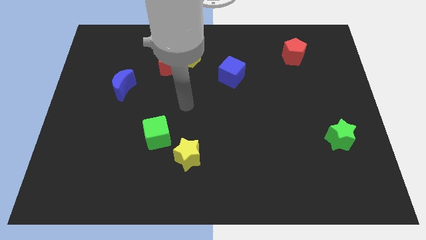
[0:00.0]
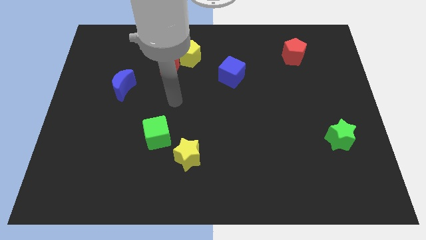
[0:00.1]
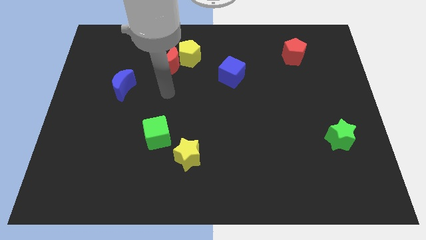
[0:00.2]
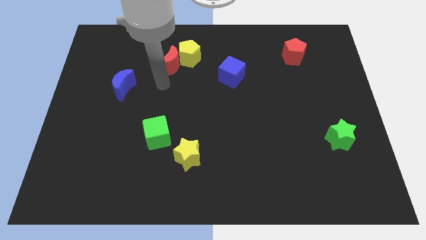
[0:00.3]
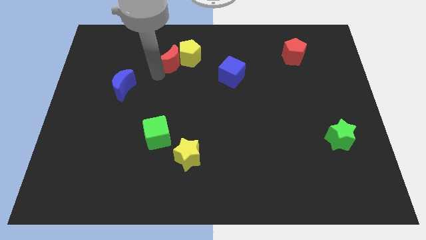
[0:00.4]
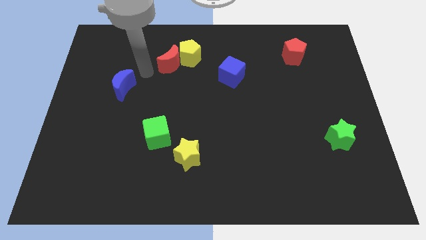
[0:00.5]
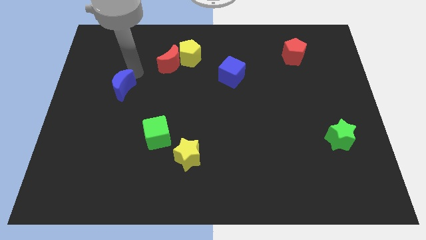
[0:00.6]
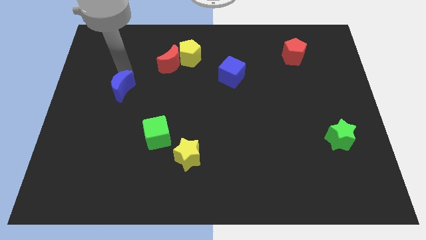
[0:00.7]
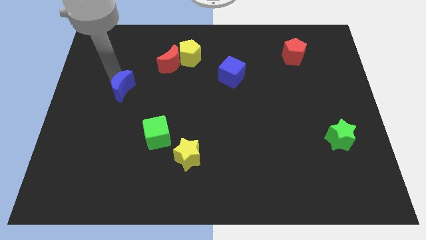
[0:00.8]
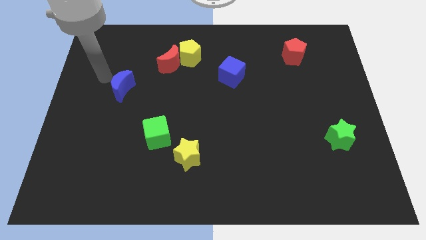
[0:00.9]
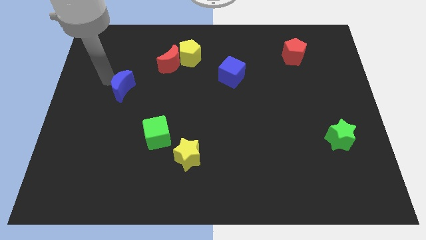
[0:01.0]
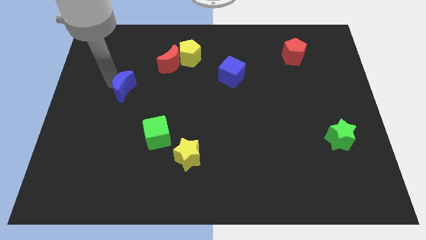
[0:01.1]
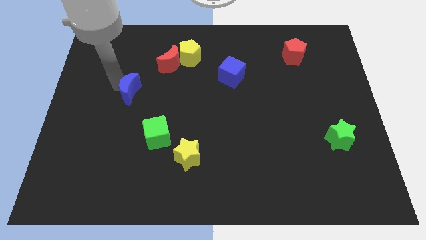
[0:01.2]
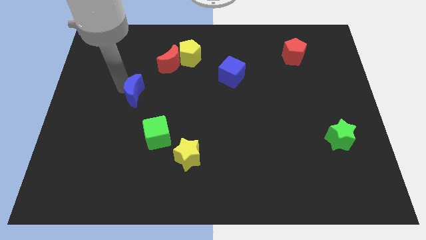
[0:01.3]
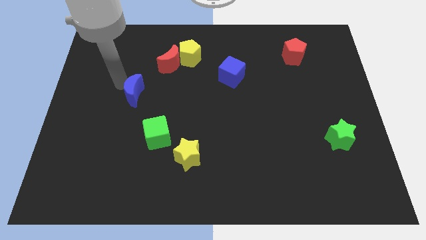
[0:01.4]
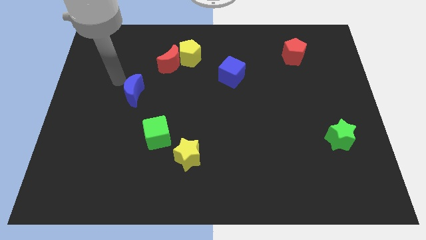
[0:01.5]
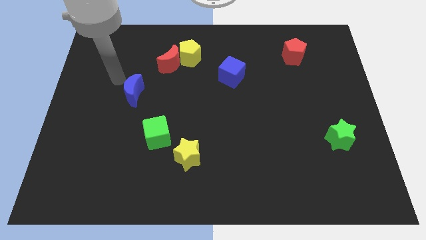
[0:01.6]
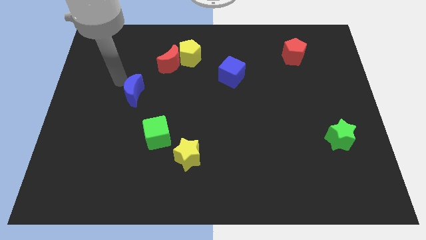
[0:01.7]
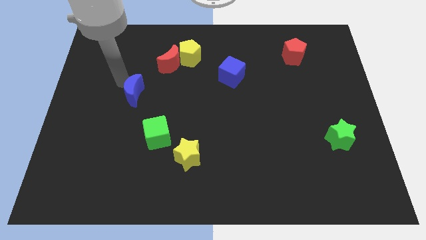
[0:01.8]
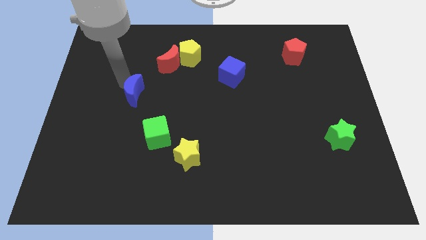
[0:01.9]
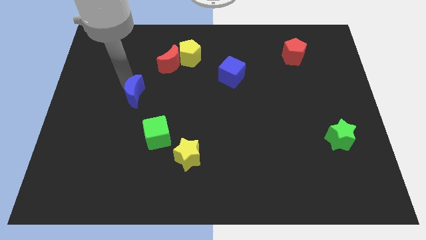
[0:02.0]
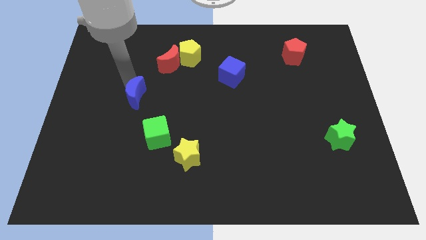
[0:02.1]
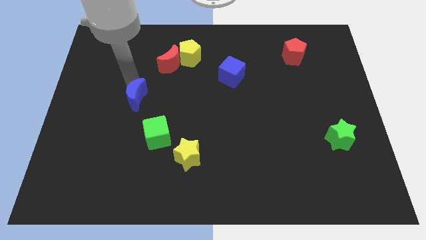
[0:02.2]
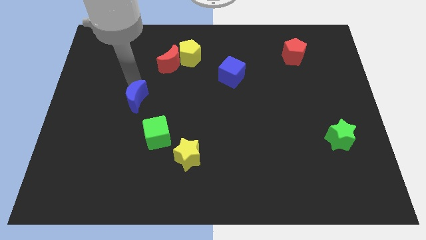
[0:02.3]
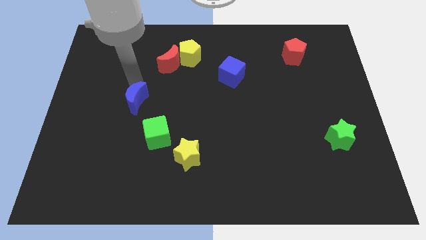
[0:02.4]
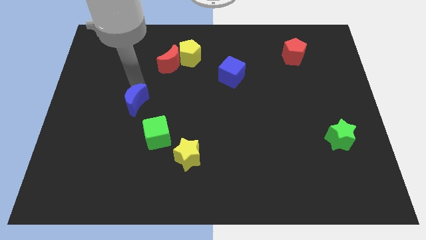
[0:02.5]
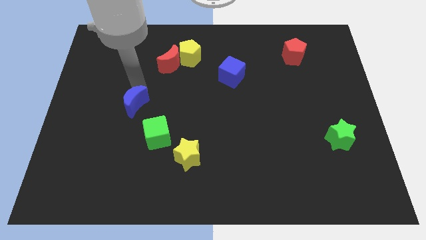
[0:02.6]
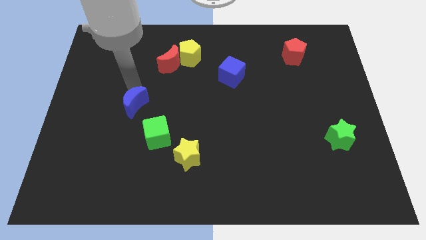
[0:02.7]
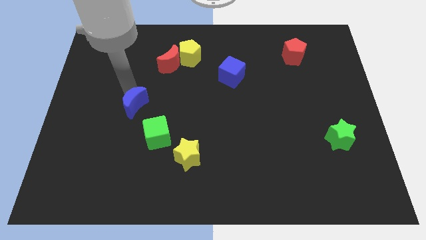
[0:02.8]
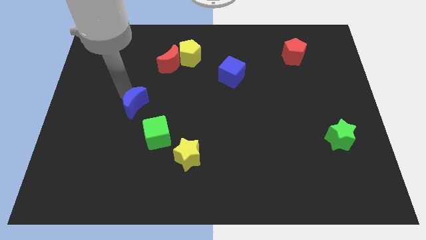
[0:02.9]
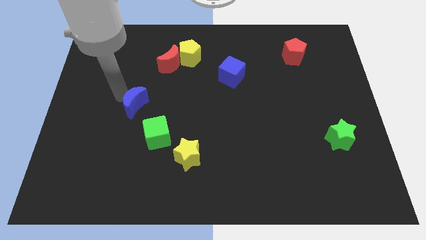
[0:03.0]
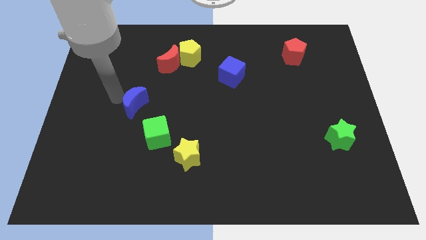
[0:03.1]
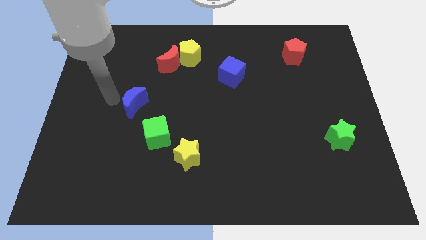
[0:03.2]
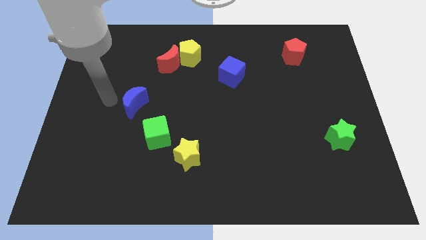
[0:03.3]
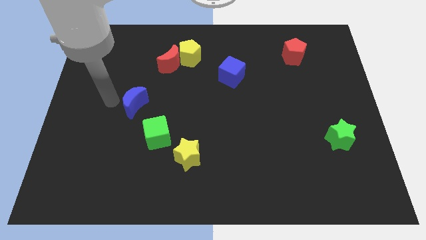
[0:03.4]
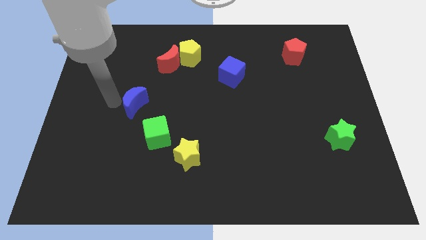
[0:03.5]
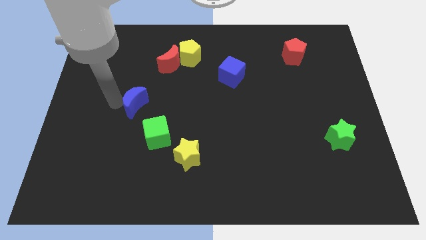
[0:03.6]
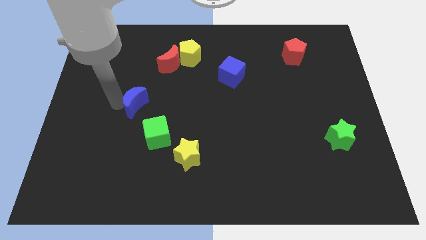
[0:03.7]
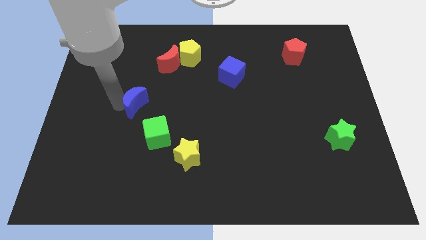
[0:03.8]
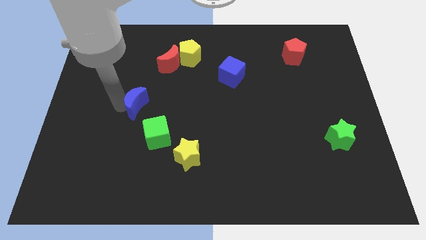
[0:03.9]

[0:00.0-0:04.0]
slide the blue moon somewhat down and to the right diagonally

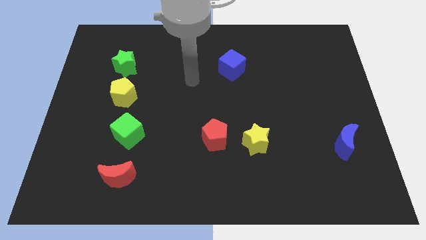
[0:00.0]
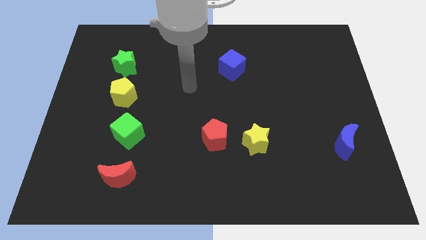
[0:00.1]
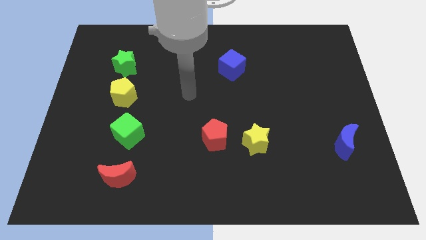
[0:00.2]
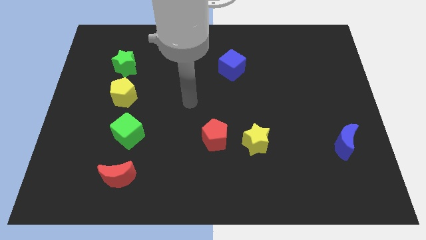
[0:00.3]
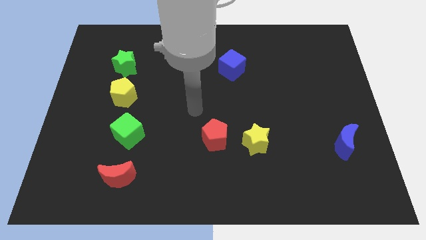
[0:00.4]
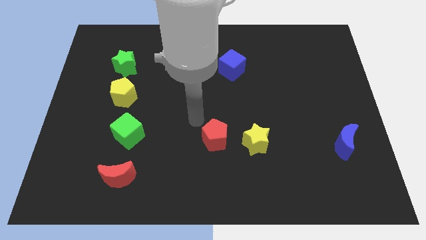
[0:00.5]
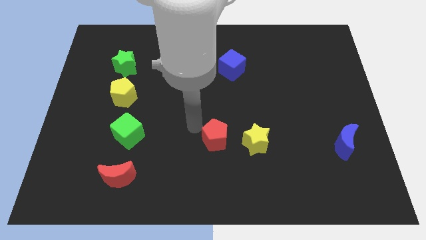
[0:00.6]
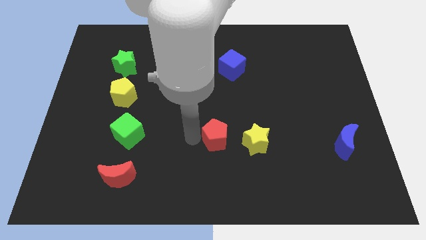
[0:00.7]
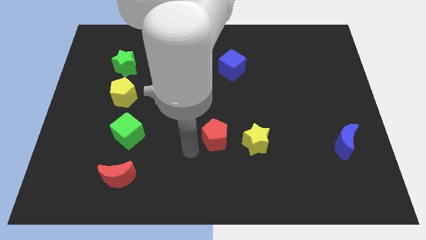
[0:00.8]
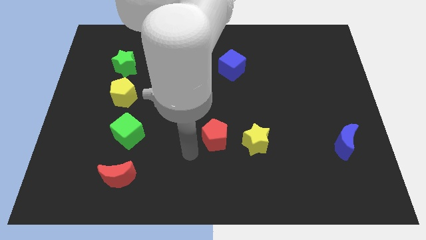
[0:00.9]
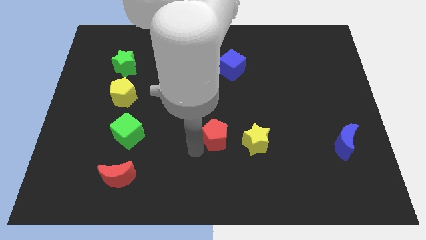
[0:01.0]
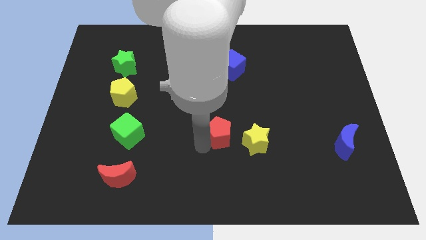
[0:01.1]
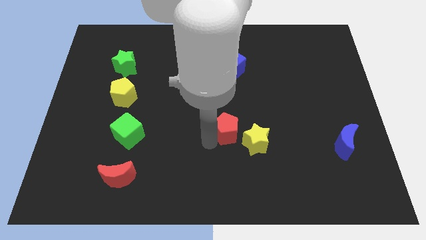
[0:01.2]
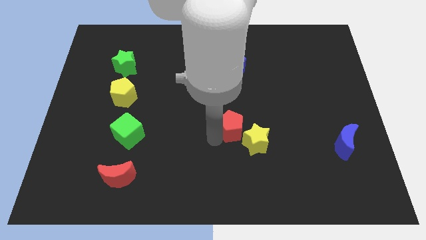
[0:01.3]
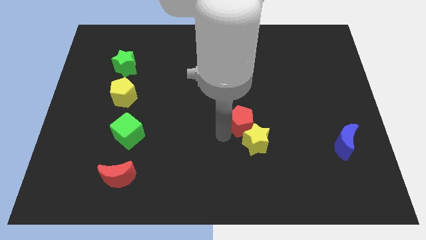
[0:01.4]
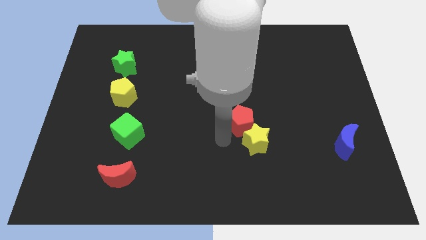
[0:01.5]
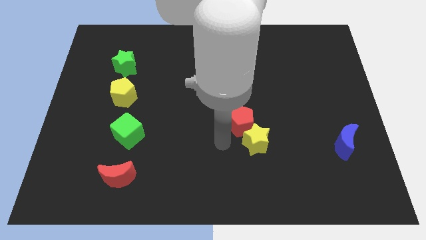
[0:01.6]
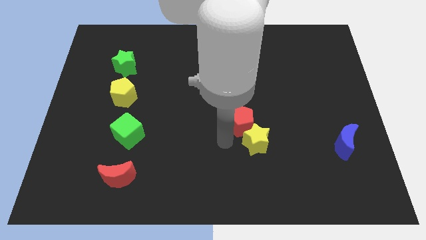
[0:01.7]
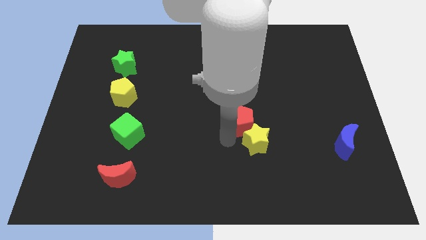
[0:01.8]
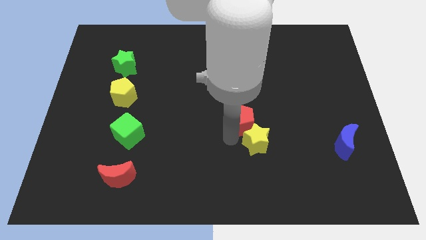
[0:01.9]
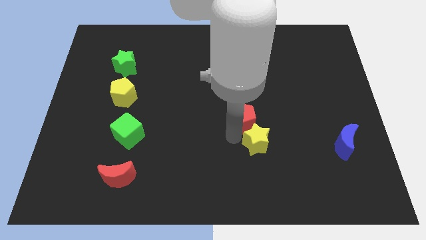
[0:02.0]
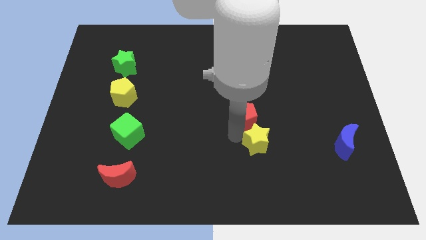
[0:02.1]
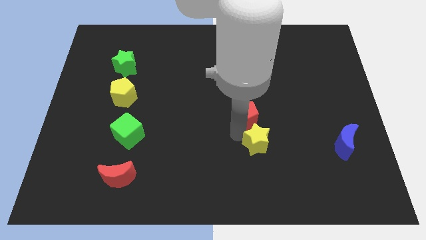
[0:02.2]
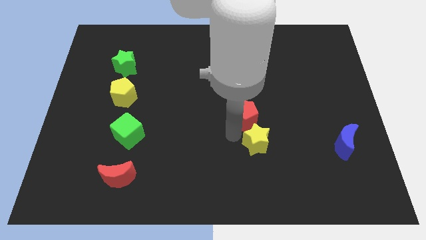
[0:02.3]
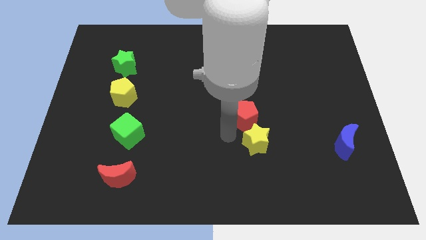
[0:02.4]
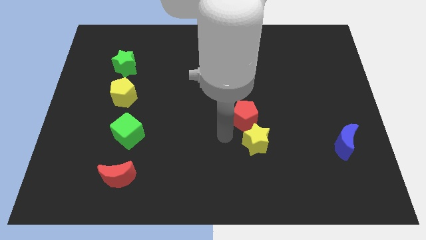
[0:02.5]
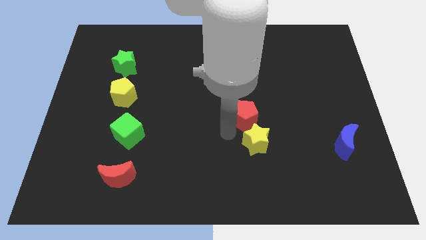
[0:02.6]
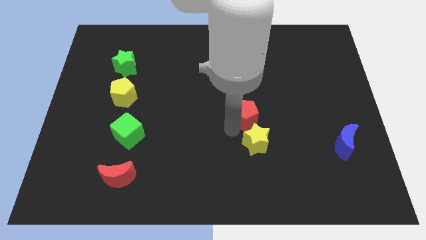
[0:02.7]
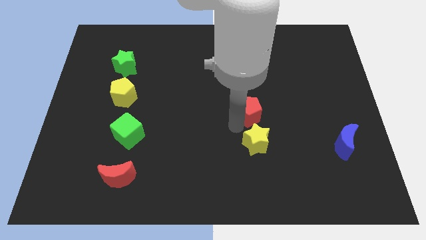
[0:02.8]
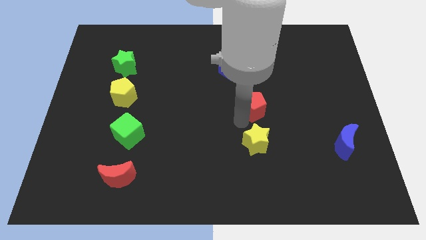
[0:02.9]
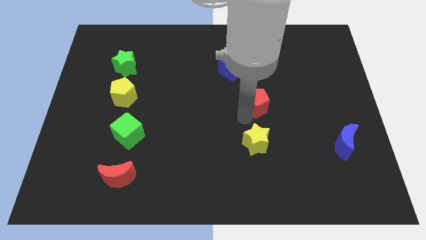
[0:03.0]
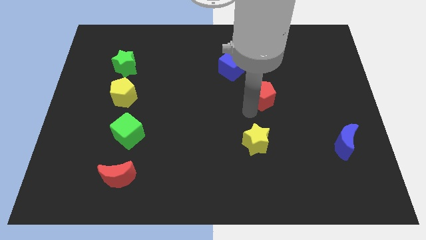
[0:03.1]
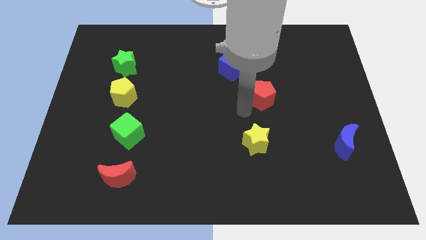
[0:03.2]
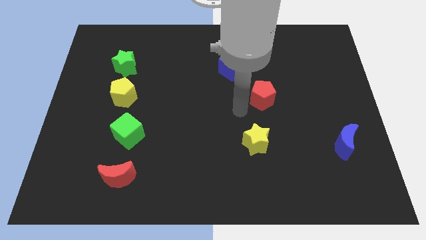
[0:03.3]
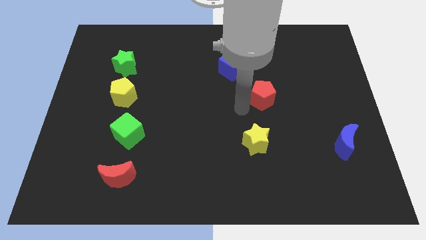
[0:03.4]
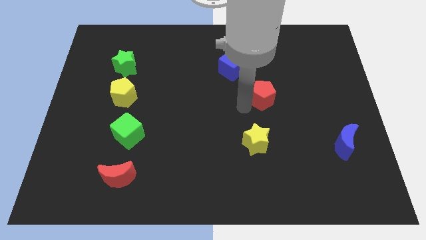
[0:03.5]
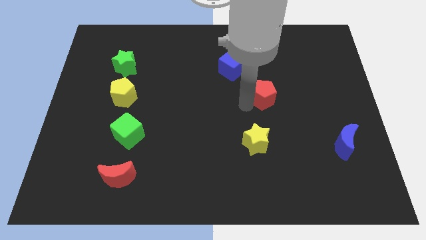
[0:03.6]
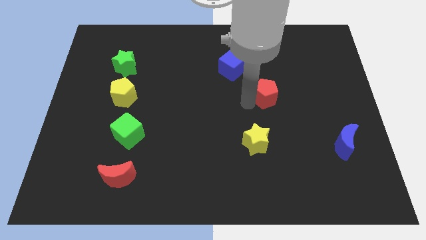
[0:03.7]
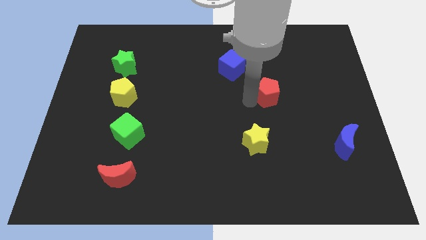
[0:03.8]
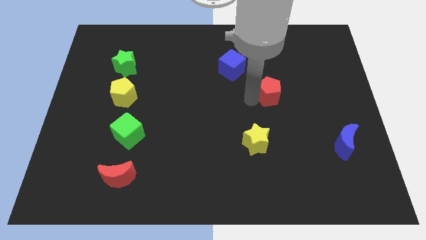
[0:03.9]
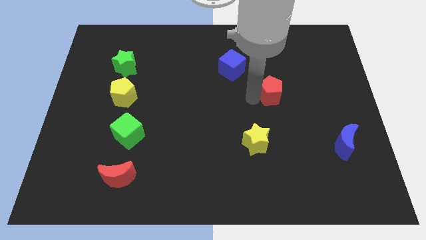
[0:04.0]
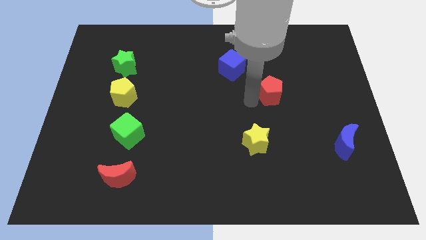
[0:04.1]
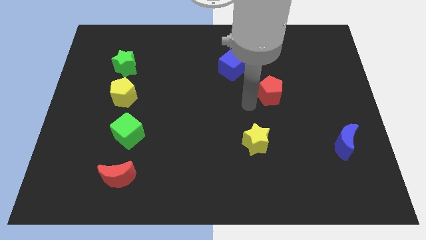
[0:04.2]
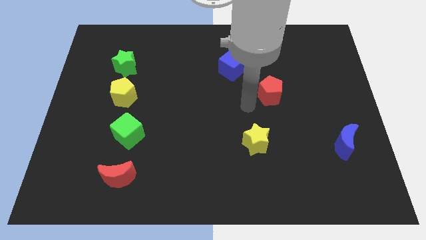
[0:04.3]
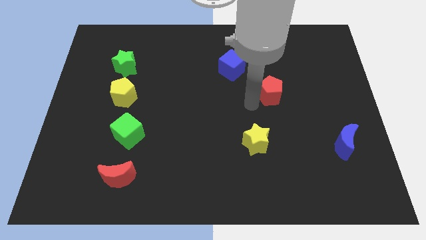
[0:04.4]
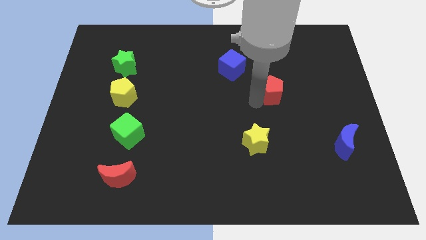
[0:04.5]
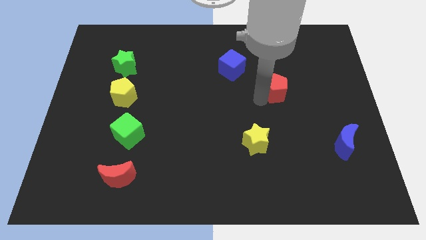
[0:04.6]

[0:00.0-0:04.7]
slide the red pentagon upwards and to the right
